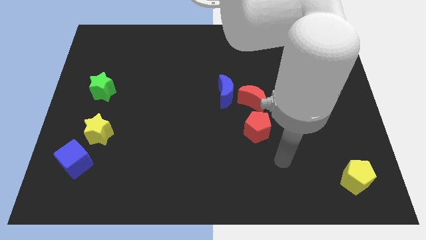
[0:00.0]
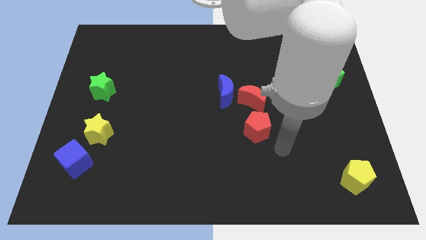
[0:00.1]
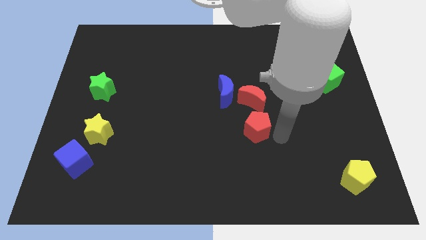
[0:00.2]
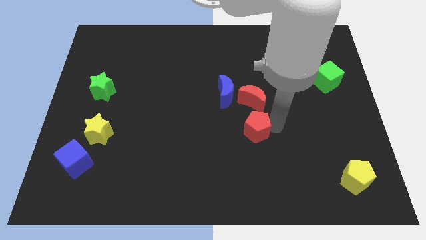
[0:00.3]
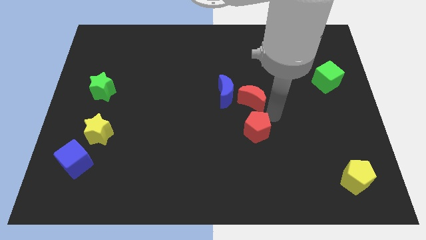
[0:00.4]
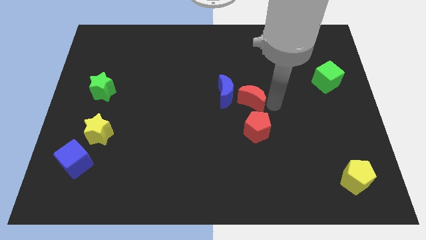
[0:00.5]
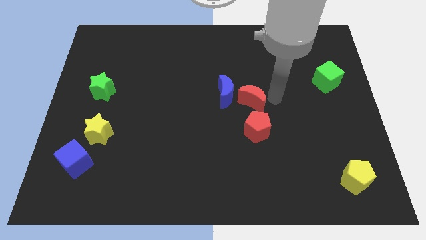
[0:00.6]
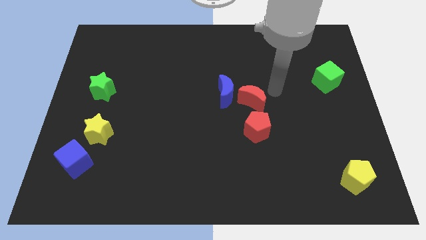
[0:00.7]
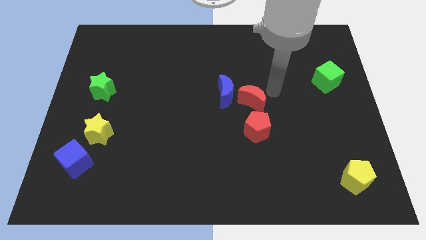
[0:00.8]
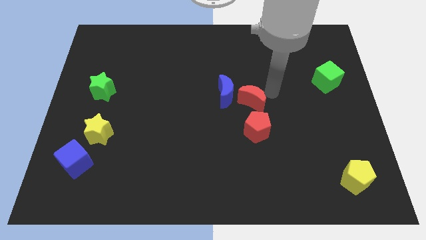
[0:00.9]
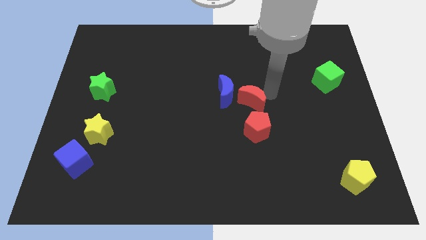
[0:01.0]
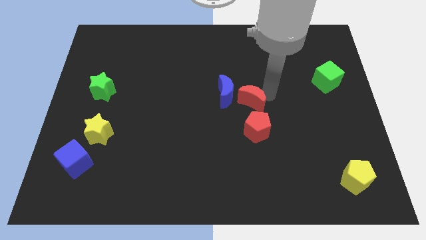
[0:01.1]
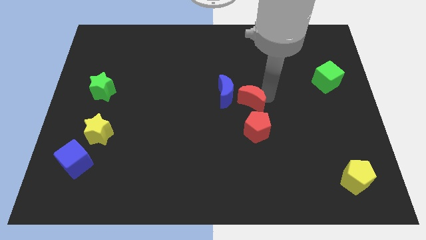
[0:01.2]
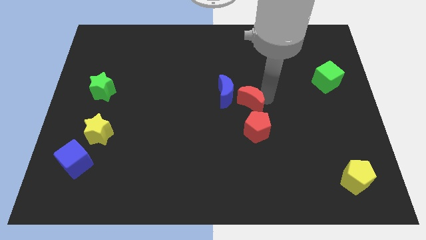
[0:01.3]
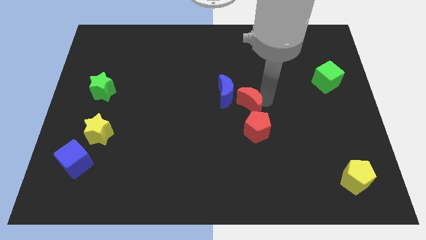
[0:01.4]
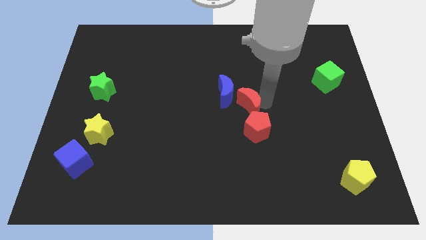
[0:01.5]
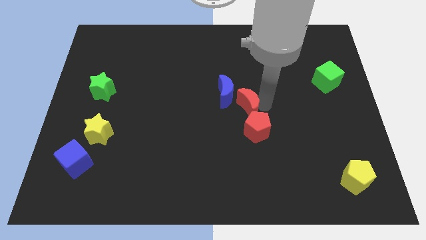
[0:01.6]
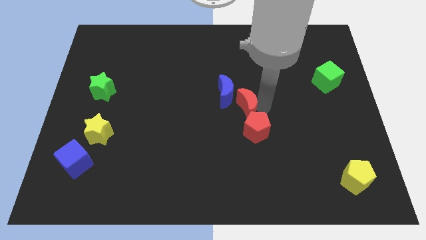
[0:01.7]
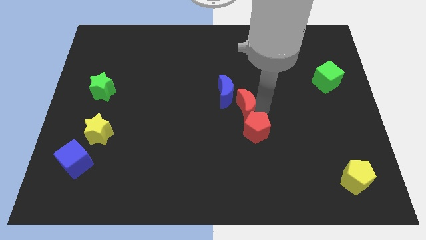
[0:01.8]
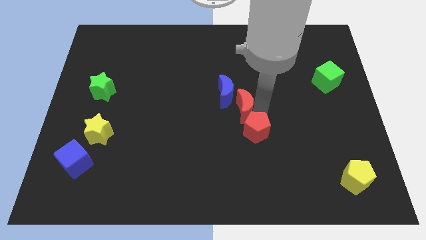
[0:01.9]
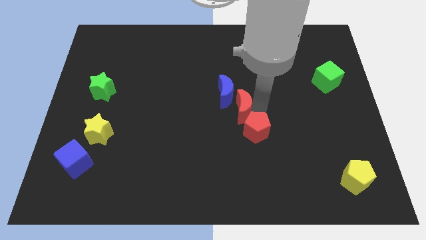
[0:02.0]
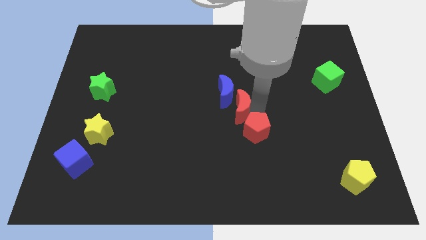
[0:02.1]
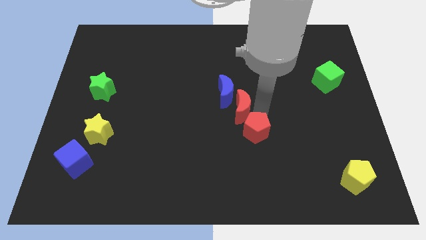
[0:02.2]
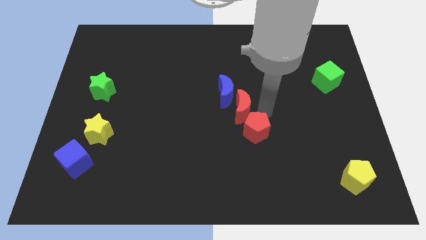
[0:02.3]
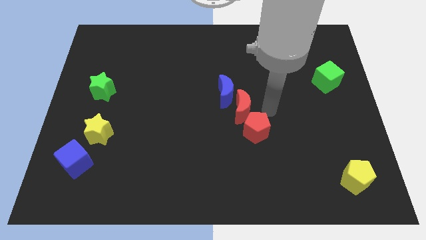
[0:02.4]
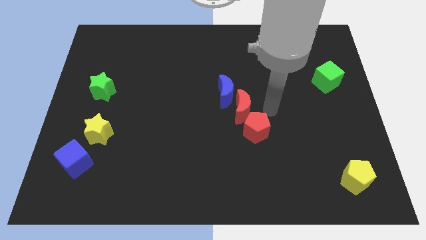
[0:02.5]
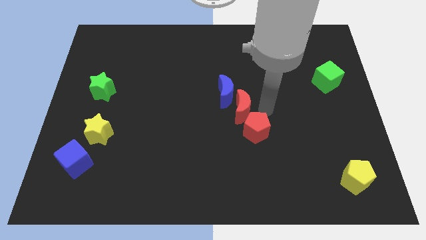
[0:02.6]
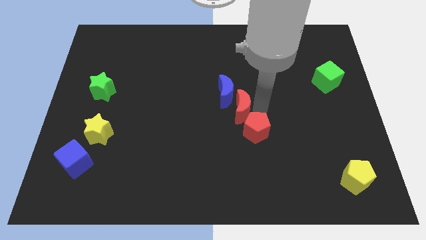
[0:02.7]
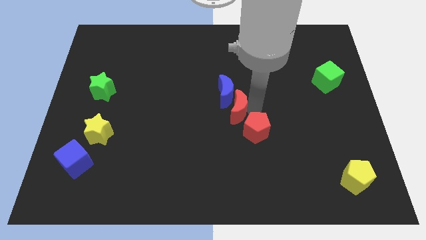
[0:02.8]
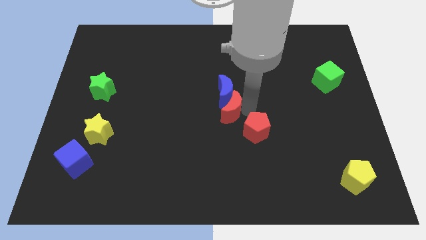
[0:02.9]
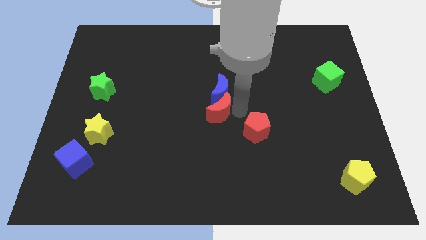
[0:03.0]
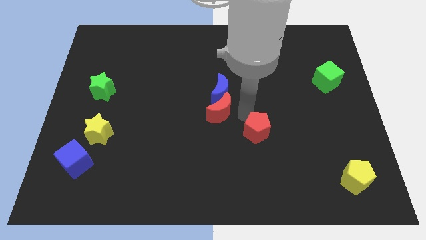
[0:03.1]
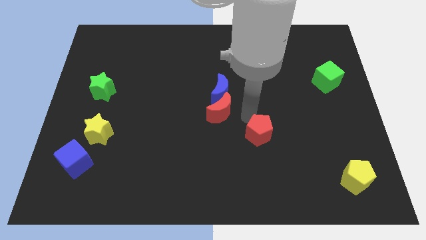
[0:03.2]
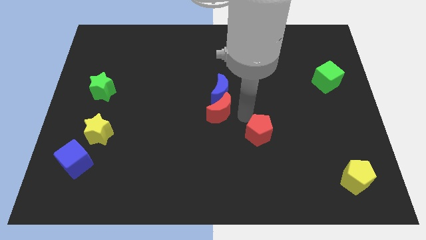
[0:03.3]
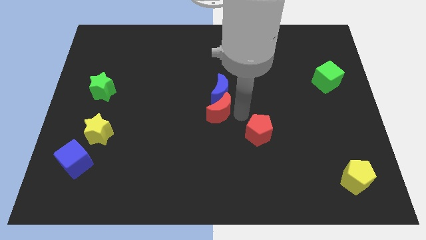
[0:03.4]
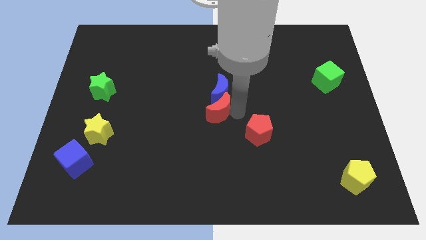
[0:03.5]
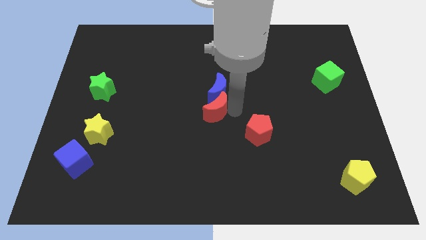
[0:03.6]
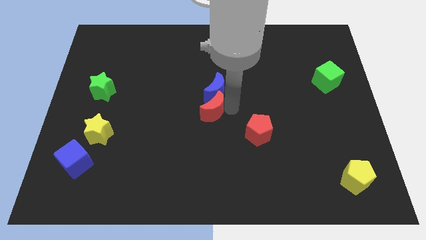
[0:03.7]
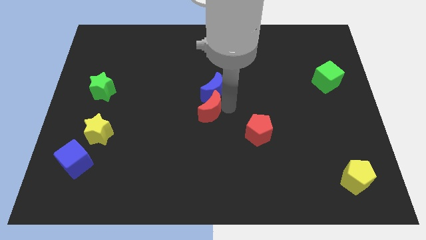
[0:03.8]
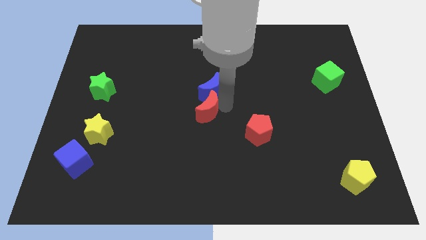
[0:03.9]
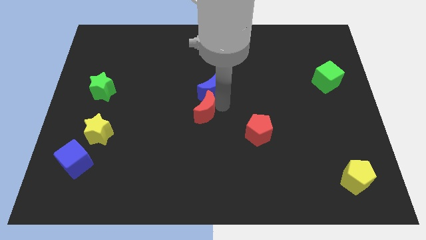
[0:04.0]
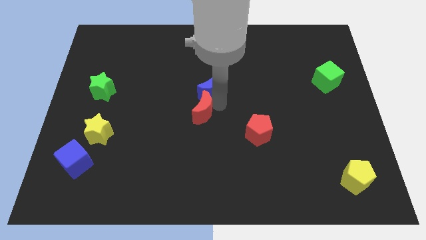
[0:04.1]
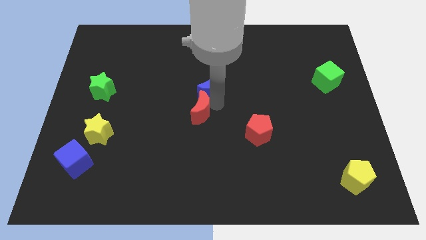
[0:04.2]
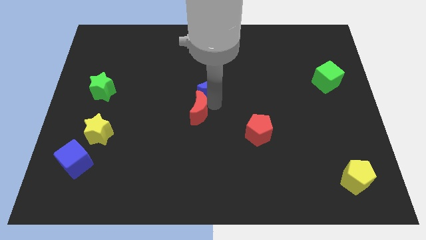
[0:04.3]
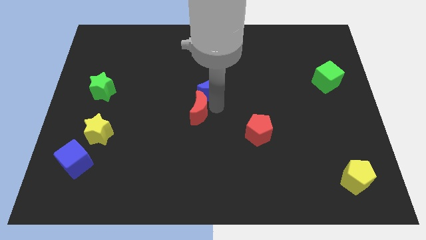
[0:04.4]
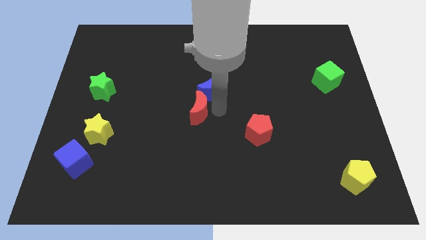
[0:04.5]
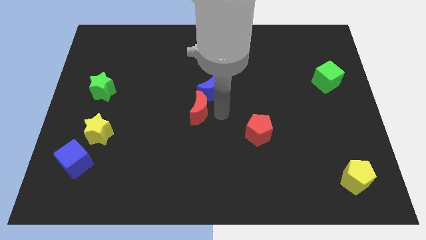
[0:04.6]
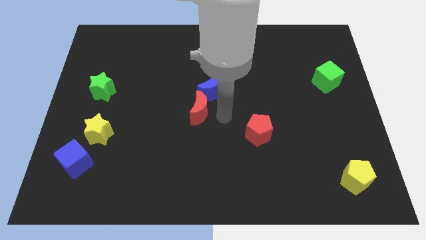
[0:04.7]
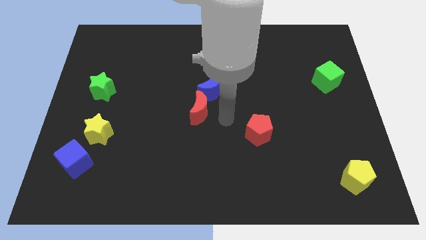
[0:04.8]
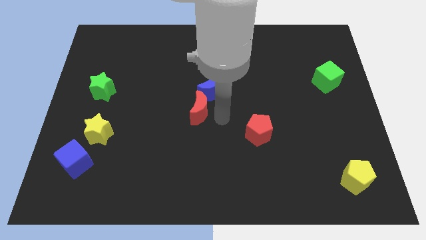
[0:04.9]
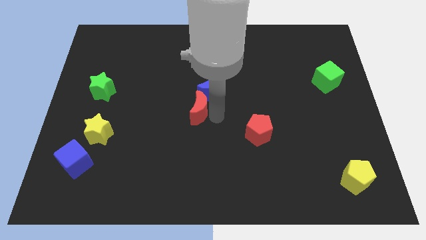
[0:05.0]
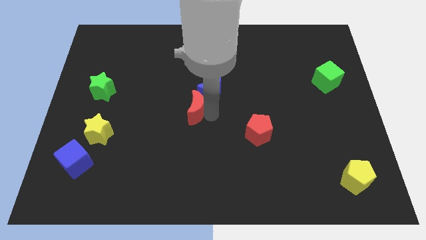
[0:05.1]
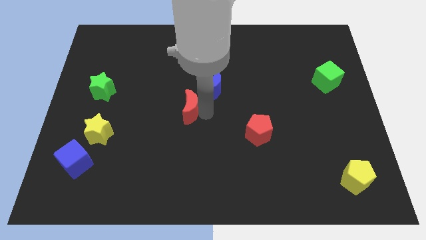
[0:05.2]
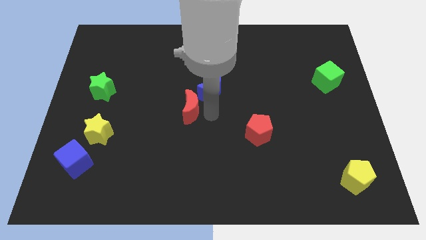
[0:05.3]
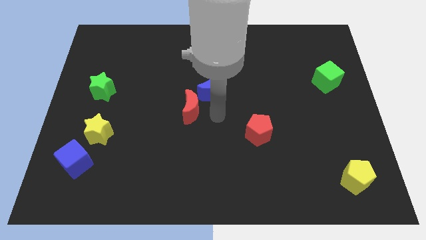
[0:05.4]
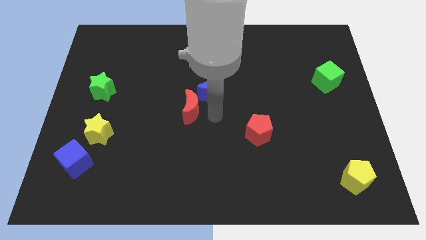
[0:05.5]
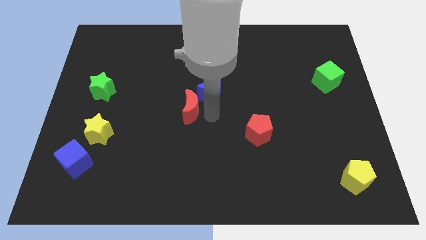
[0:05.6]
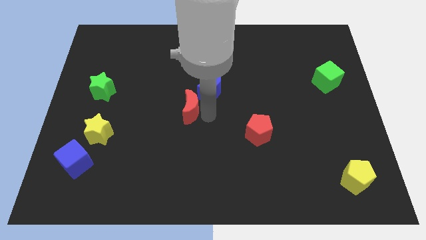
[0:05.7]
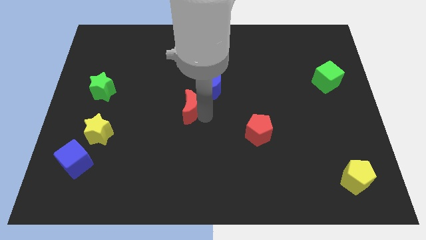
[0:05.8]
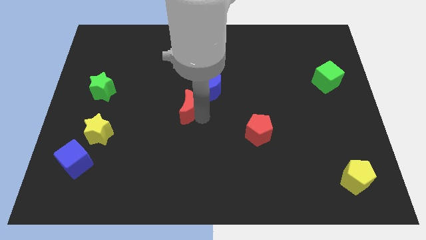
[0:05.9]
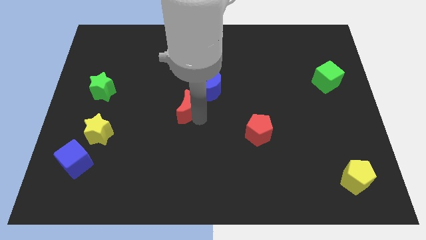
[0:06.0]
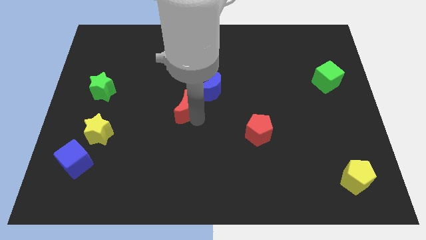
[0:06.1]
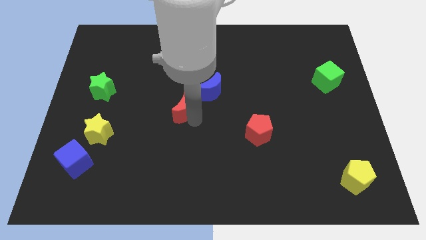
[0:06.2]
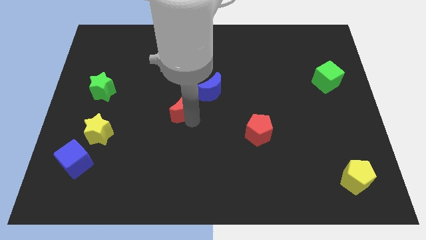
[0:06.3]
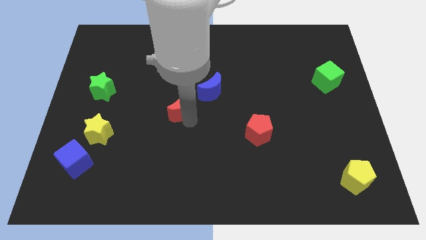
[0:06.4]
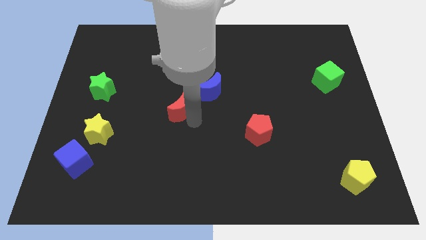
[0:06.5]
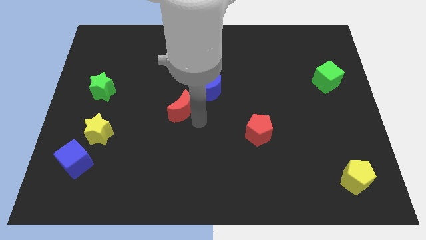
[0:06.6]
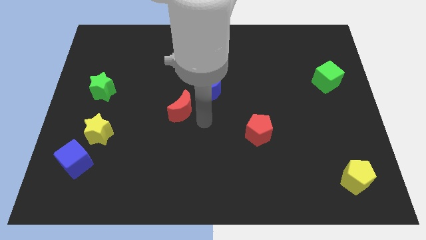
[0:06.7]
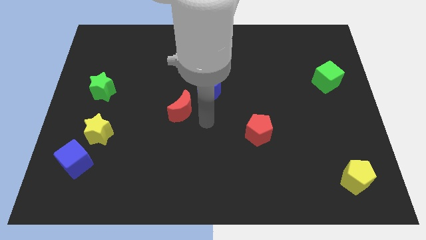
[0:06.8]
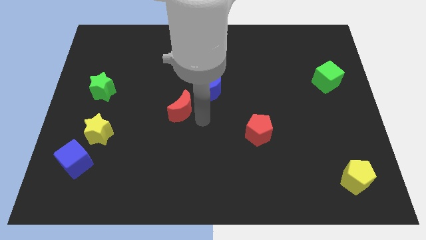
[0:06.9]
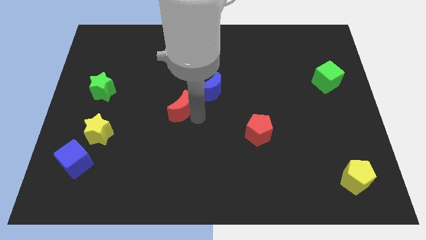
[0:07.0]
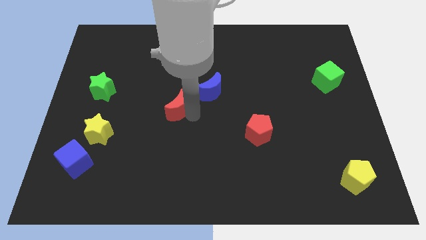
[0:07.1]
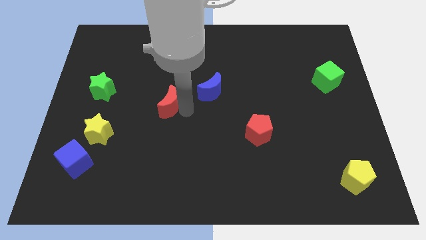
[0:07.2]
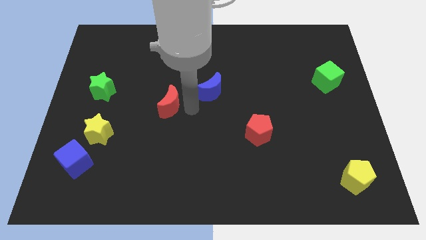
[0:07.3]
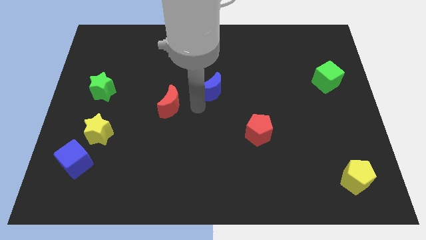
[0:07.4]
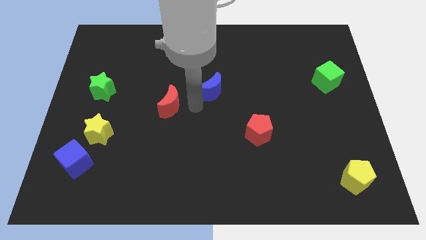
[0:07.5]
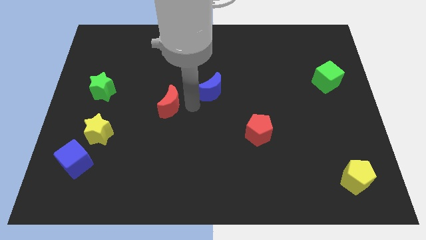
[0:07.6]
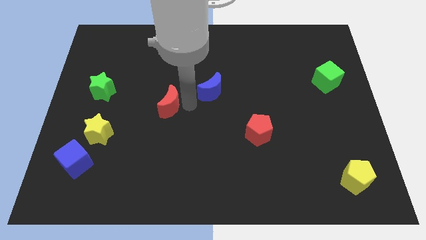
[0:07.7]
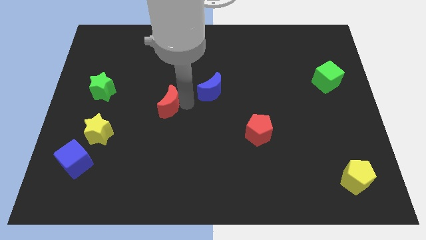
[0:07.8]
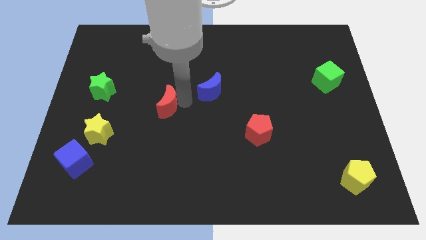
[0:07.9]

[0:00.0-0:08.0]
slide the red moon to the left
